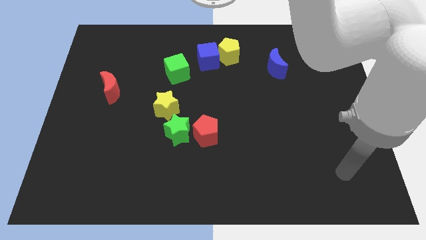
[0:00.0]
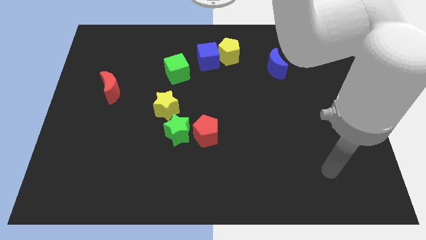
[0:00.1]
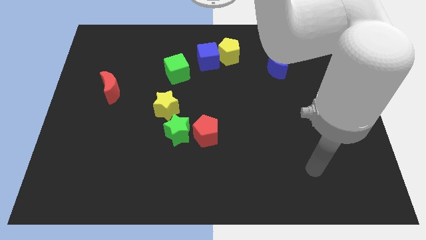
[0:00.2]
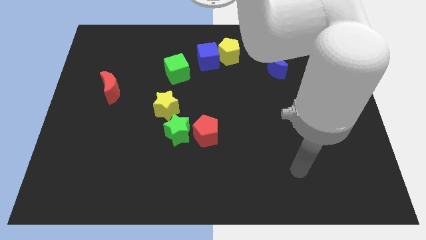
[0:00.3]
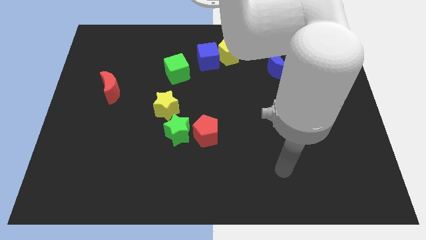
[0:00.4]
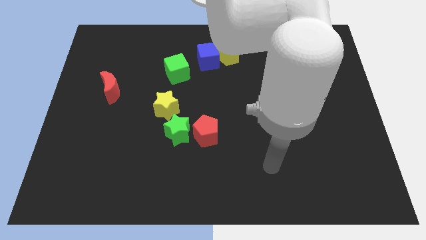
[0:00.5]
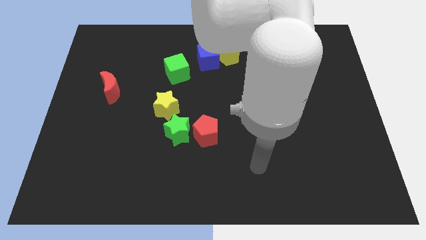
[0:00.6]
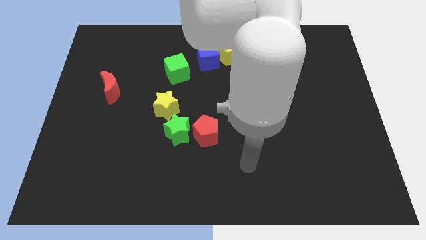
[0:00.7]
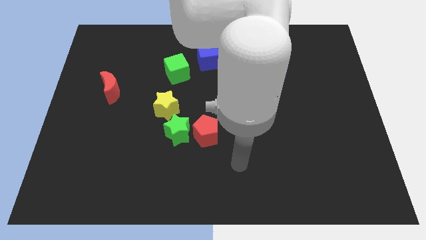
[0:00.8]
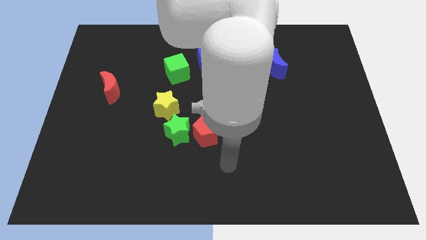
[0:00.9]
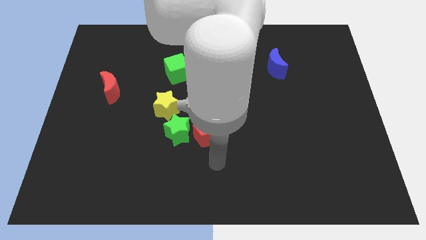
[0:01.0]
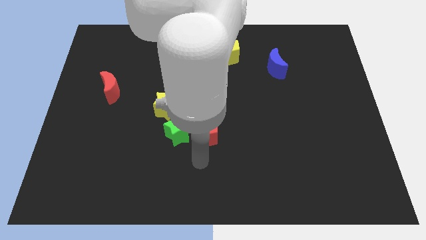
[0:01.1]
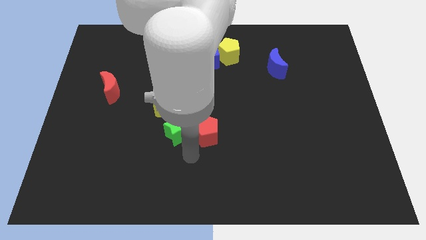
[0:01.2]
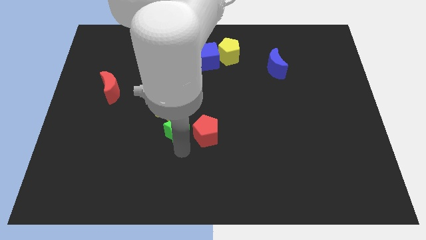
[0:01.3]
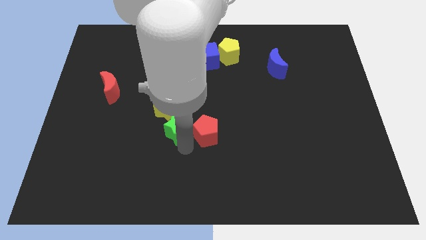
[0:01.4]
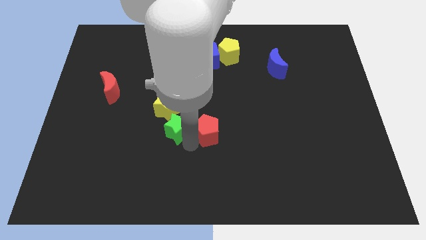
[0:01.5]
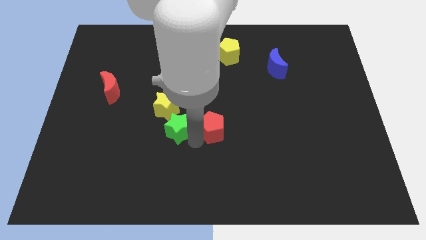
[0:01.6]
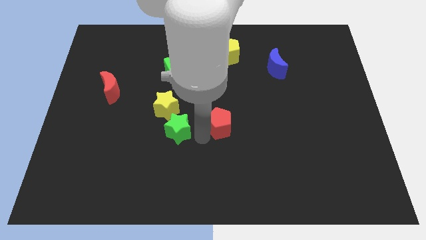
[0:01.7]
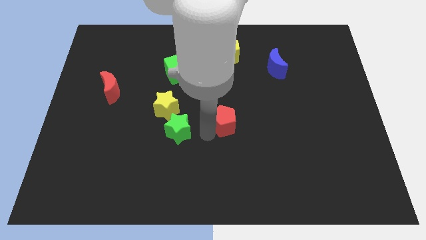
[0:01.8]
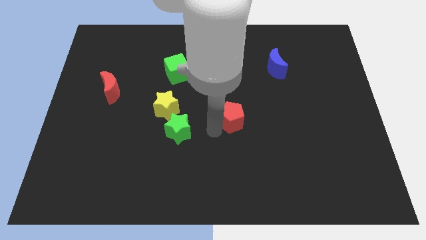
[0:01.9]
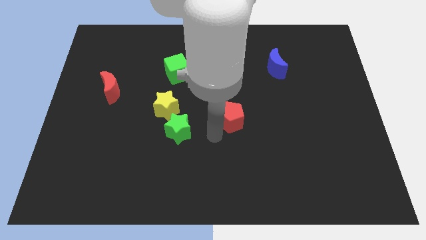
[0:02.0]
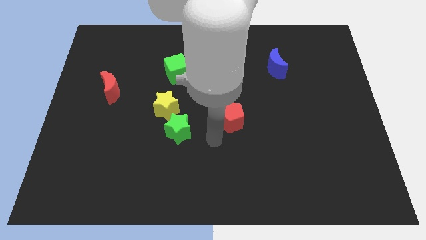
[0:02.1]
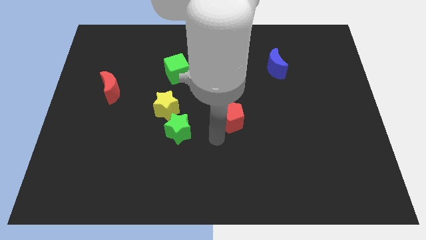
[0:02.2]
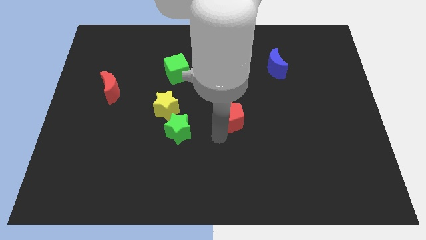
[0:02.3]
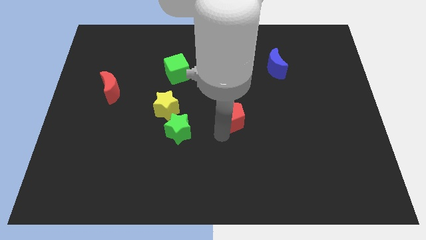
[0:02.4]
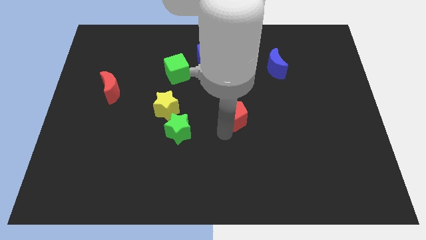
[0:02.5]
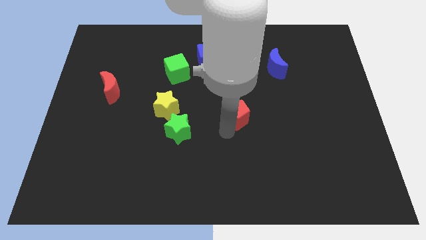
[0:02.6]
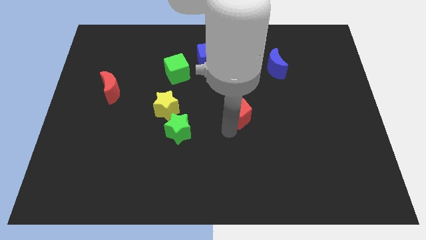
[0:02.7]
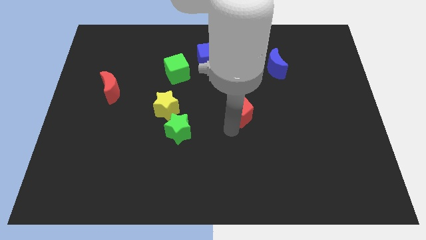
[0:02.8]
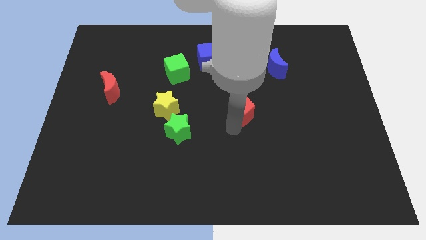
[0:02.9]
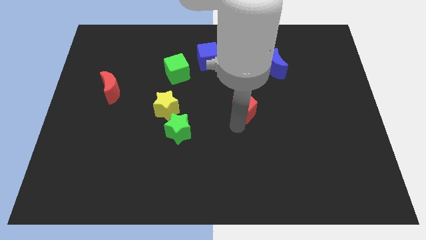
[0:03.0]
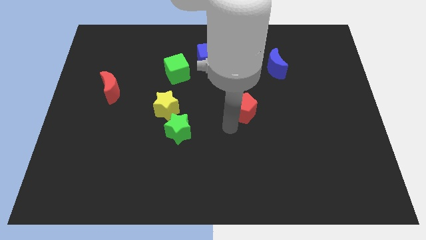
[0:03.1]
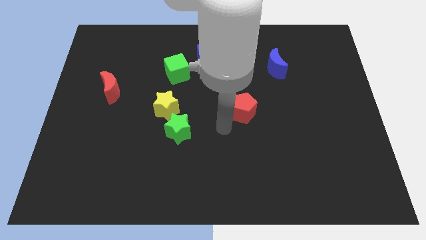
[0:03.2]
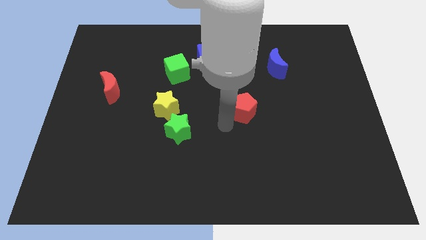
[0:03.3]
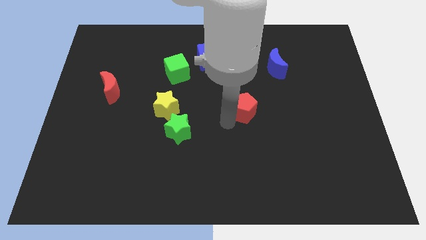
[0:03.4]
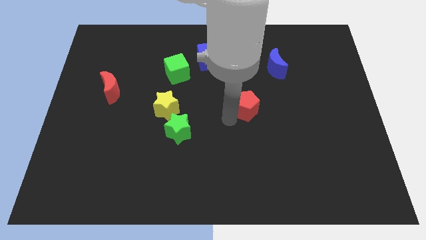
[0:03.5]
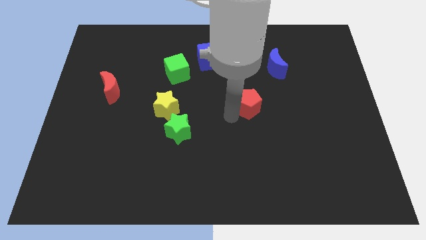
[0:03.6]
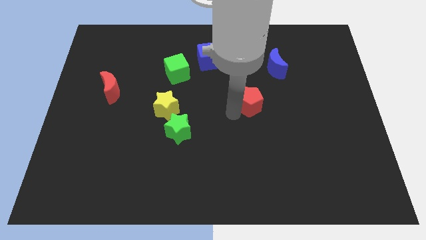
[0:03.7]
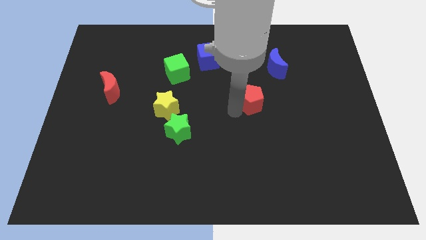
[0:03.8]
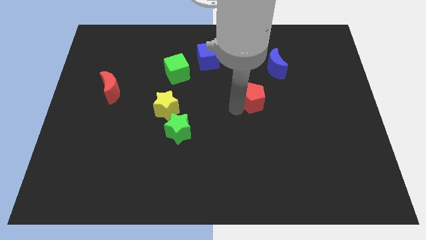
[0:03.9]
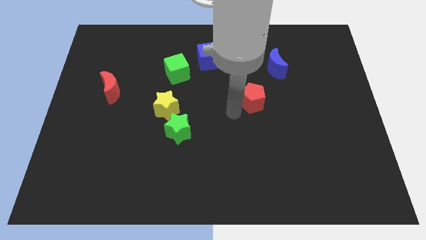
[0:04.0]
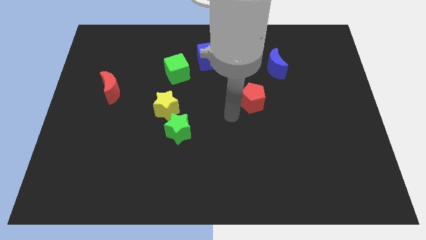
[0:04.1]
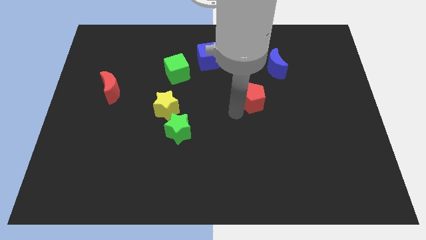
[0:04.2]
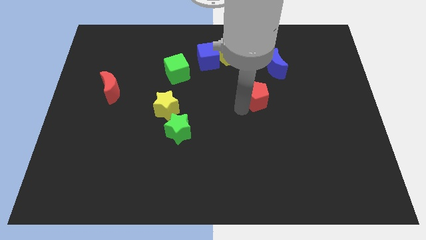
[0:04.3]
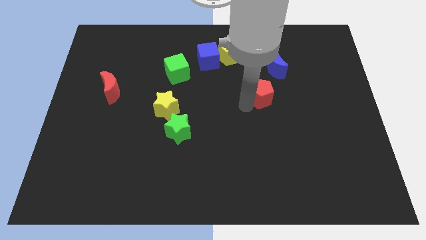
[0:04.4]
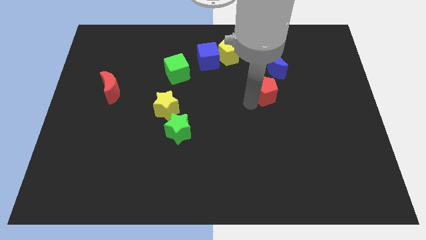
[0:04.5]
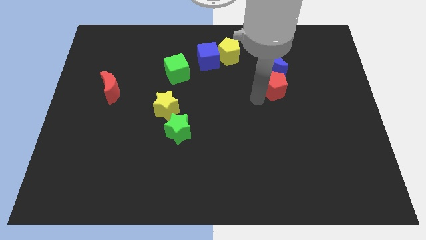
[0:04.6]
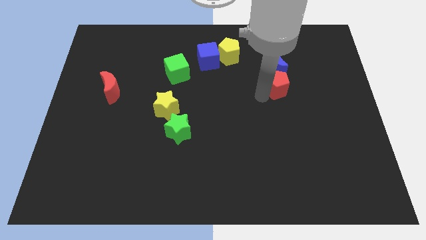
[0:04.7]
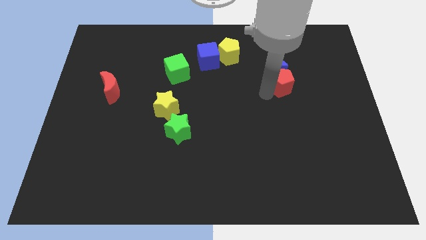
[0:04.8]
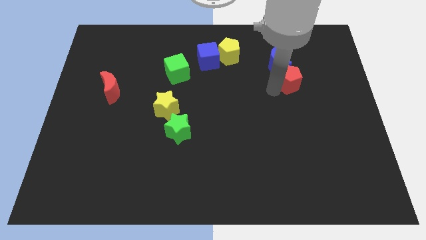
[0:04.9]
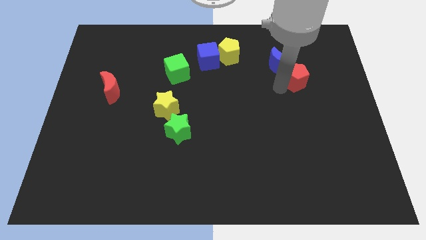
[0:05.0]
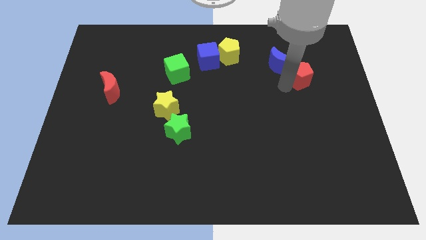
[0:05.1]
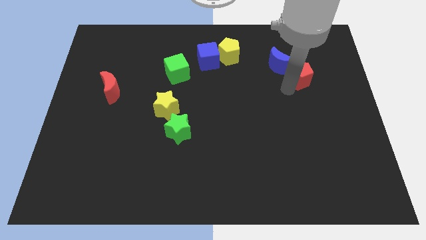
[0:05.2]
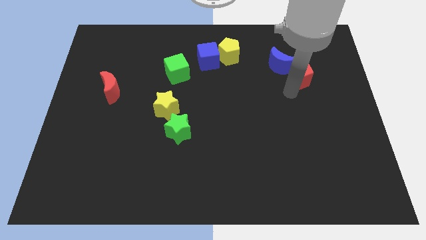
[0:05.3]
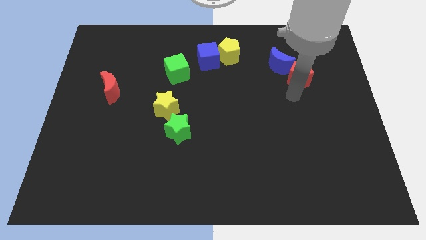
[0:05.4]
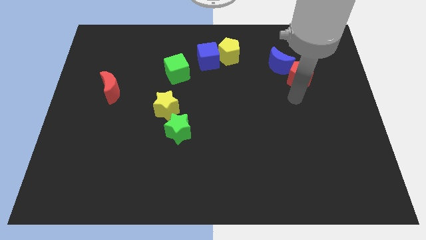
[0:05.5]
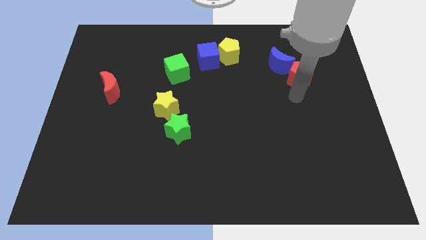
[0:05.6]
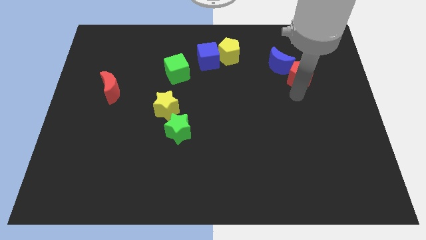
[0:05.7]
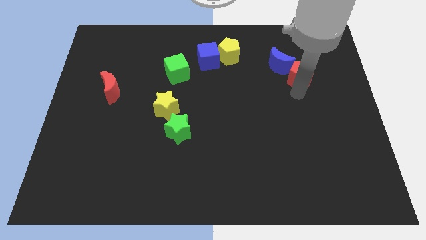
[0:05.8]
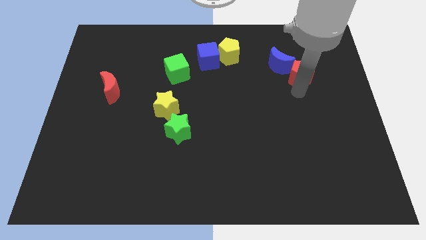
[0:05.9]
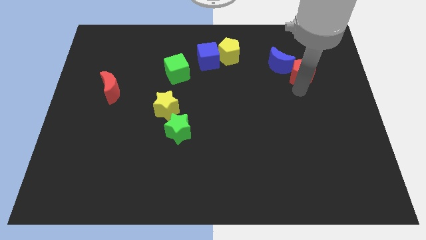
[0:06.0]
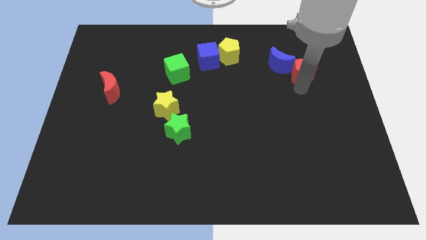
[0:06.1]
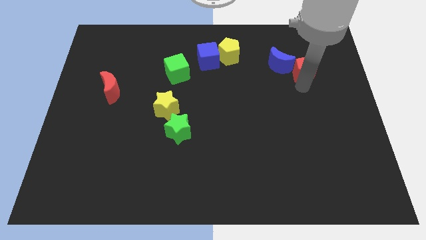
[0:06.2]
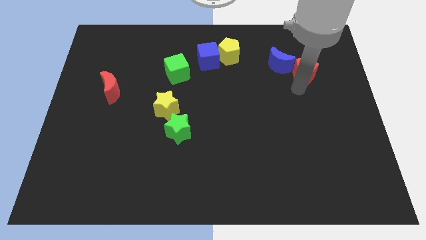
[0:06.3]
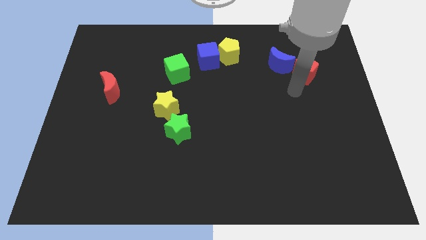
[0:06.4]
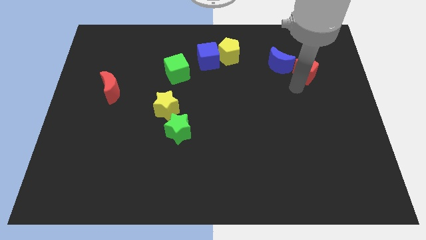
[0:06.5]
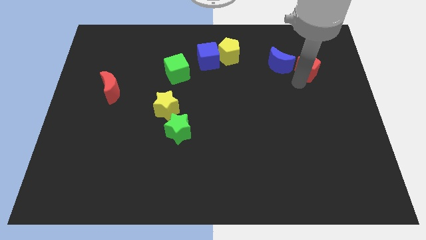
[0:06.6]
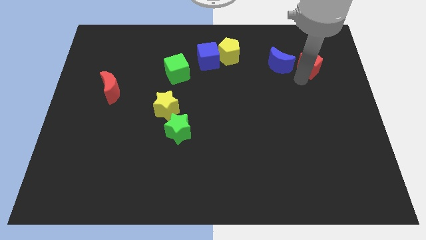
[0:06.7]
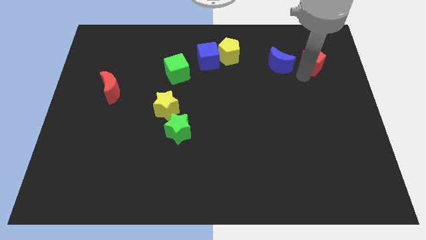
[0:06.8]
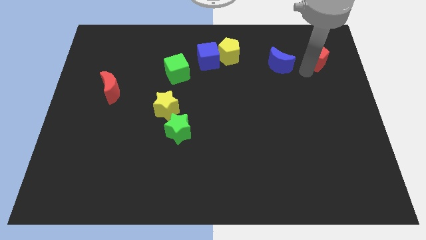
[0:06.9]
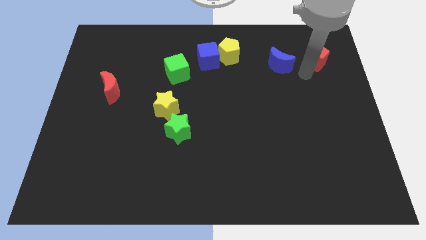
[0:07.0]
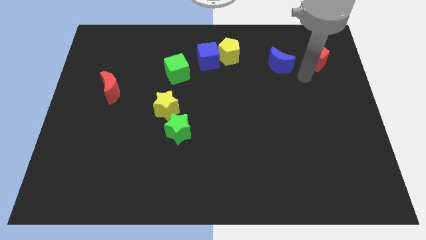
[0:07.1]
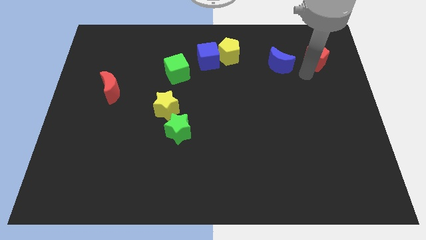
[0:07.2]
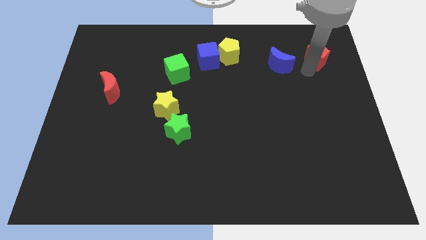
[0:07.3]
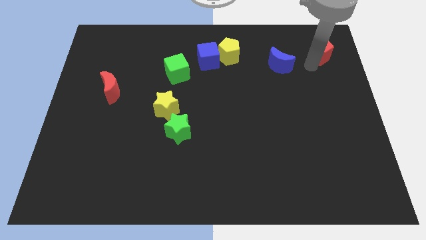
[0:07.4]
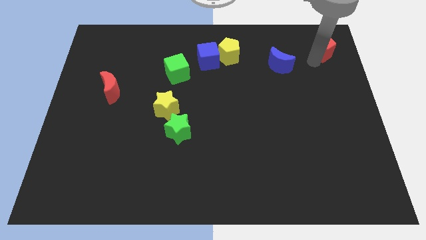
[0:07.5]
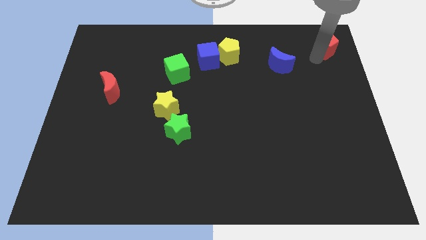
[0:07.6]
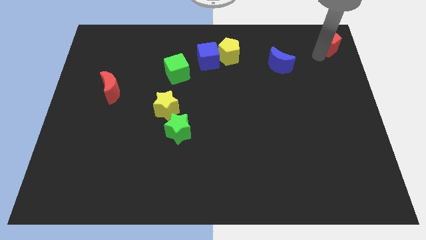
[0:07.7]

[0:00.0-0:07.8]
put the red pentagon to the top right
